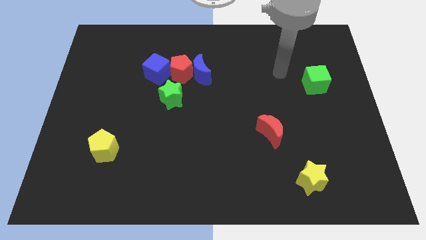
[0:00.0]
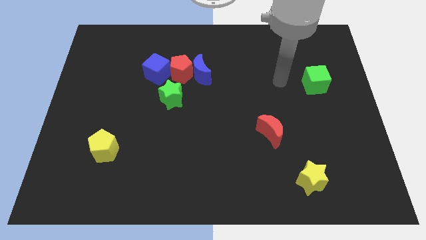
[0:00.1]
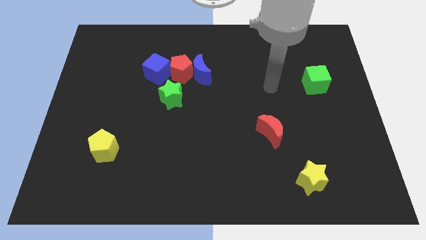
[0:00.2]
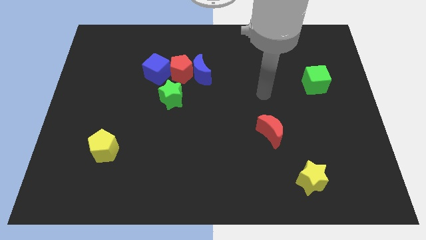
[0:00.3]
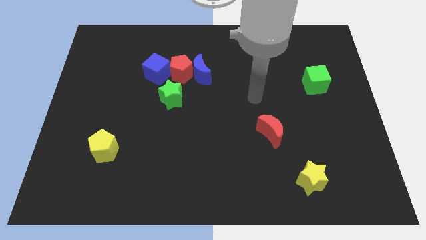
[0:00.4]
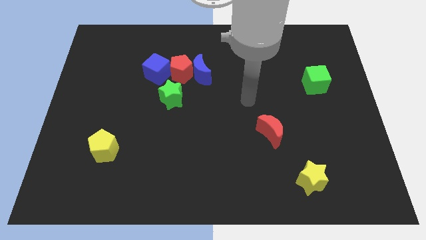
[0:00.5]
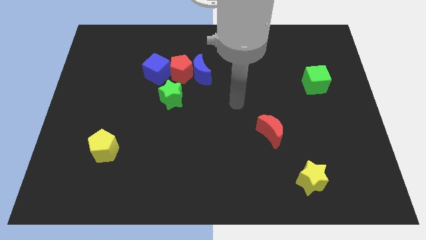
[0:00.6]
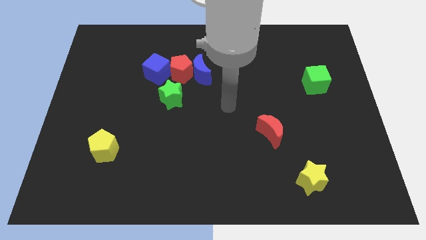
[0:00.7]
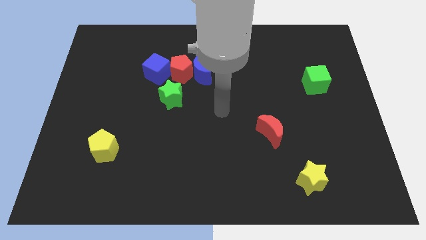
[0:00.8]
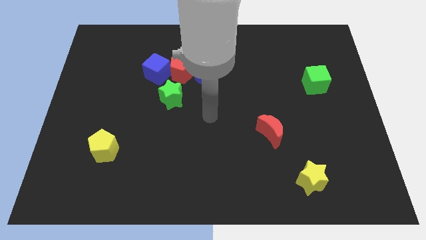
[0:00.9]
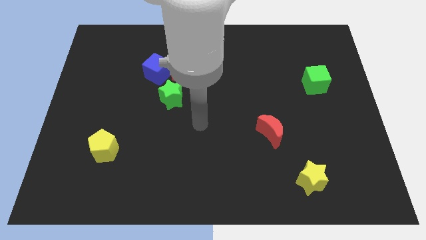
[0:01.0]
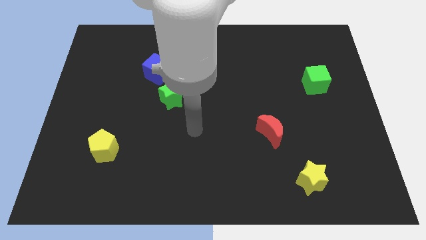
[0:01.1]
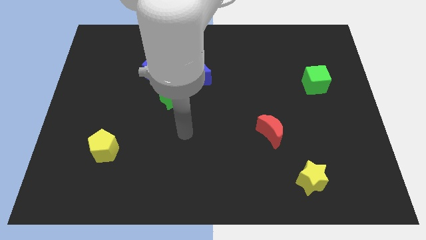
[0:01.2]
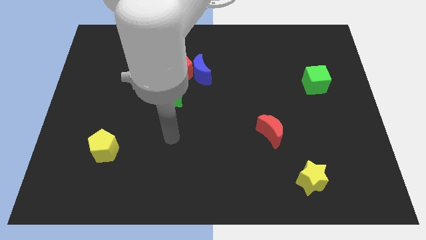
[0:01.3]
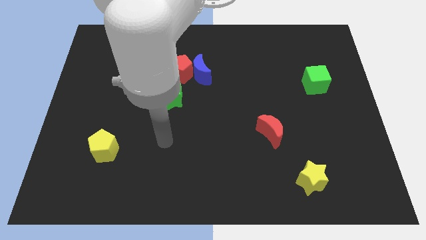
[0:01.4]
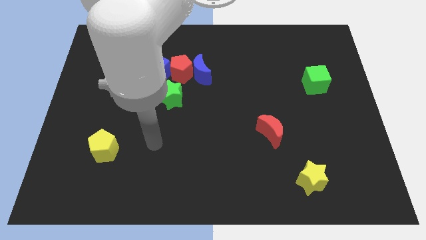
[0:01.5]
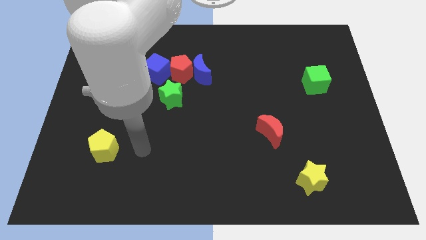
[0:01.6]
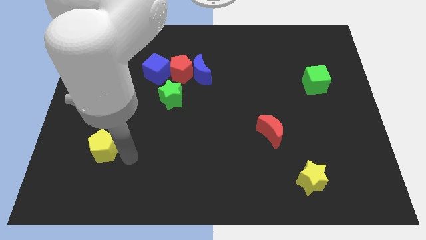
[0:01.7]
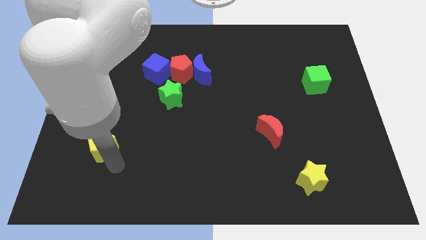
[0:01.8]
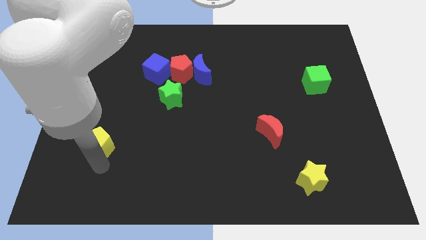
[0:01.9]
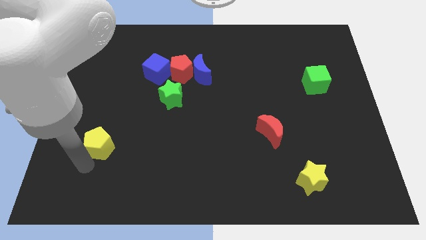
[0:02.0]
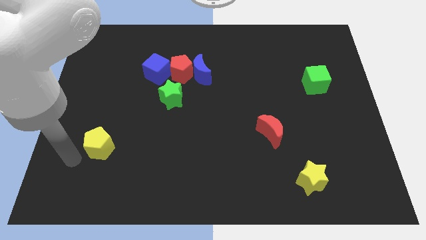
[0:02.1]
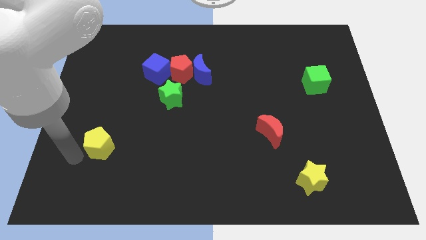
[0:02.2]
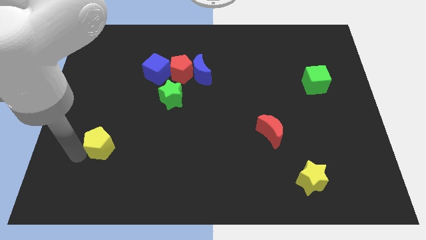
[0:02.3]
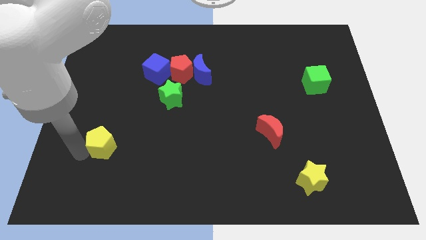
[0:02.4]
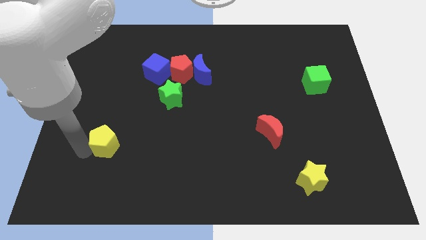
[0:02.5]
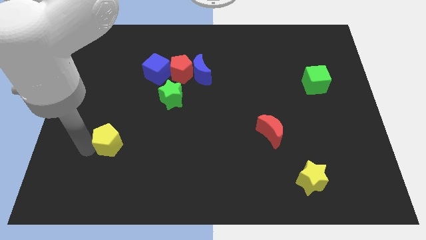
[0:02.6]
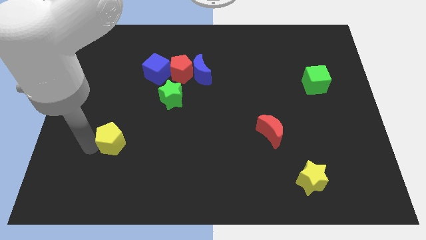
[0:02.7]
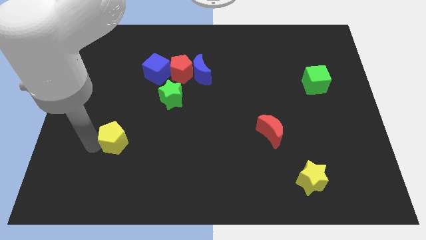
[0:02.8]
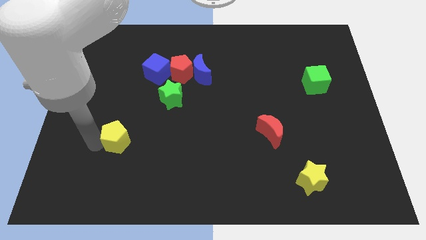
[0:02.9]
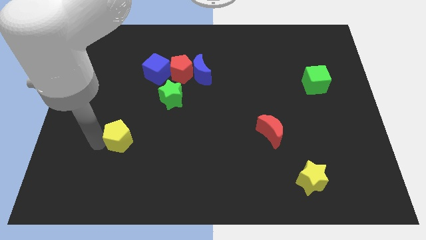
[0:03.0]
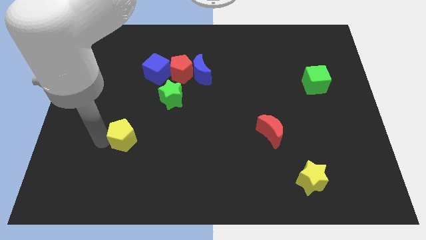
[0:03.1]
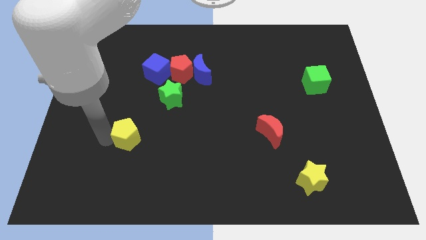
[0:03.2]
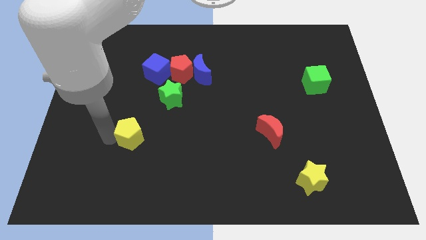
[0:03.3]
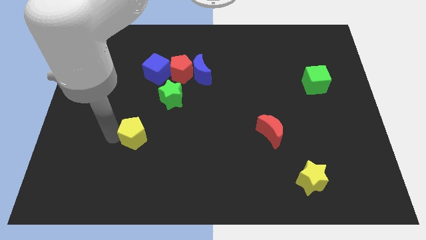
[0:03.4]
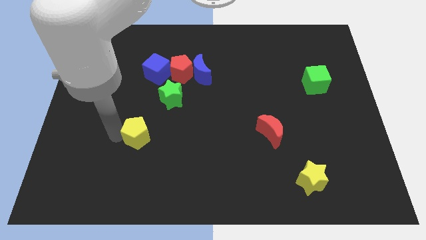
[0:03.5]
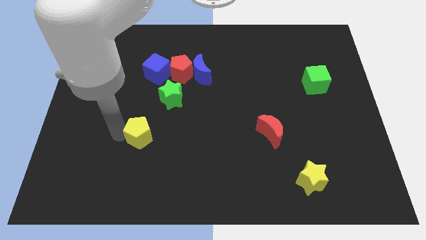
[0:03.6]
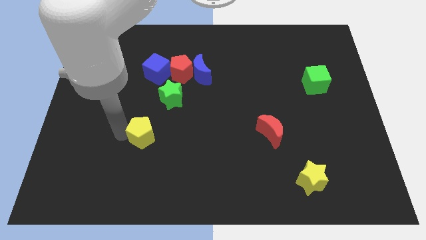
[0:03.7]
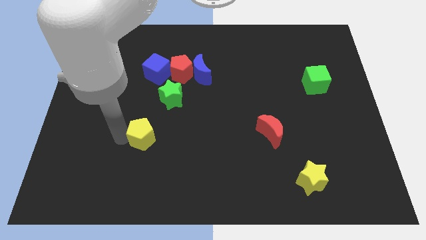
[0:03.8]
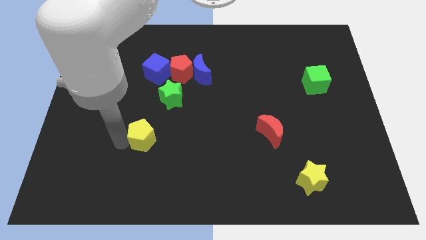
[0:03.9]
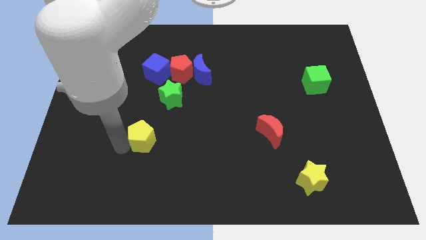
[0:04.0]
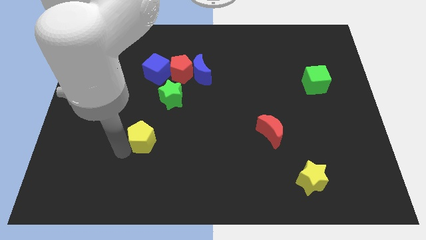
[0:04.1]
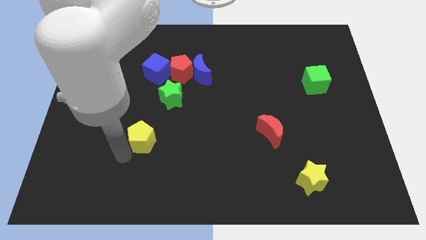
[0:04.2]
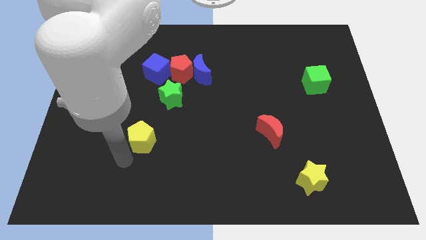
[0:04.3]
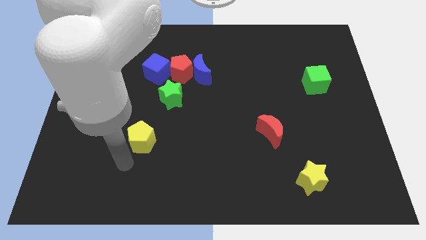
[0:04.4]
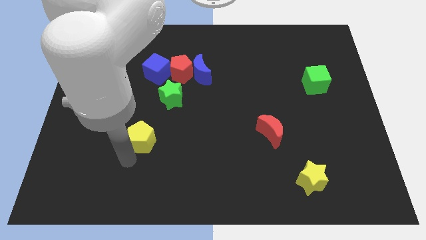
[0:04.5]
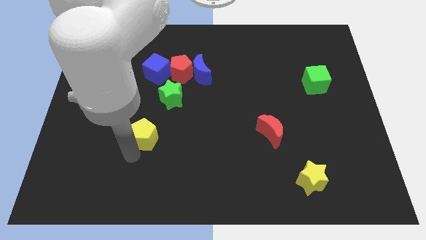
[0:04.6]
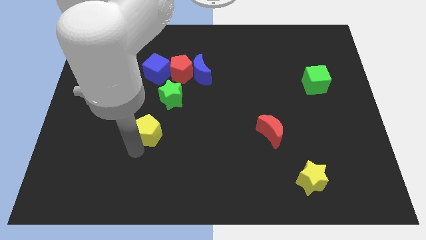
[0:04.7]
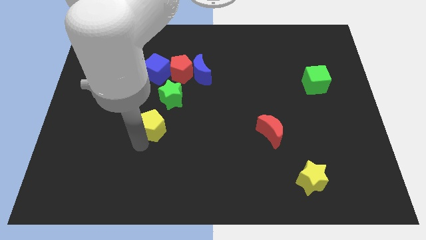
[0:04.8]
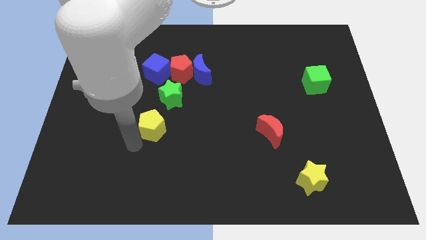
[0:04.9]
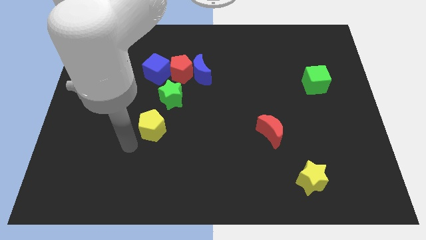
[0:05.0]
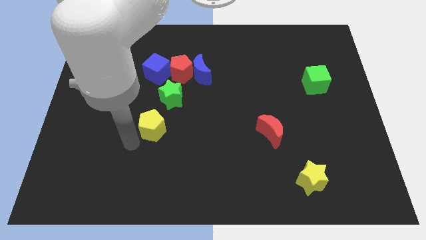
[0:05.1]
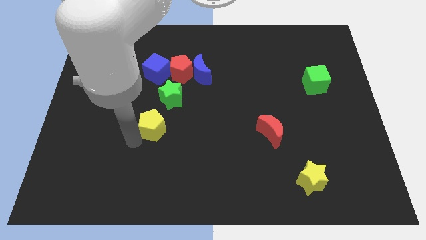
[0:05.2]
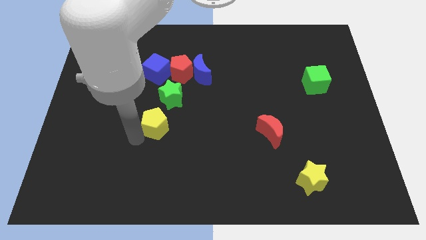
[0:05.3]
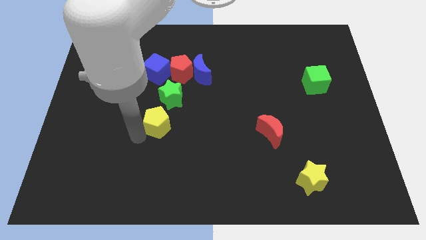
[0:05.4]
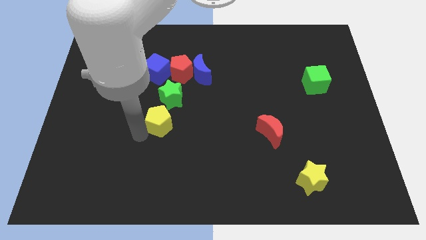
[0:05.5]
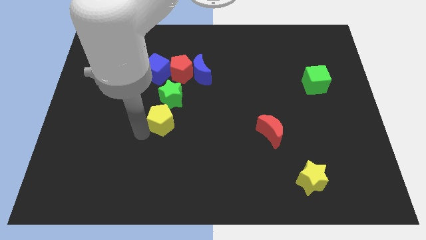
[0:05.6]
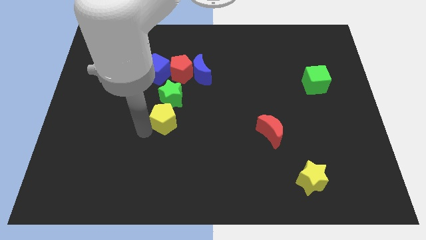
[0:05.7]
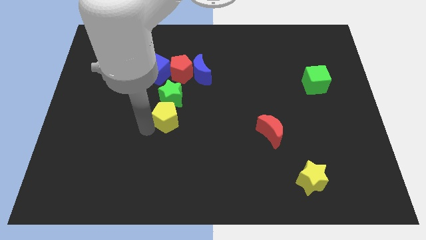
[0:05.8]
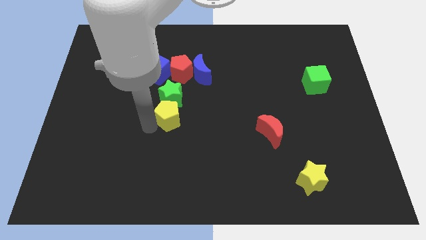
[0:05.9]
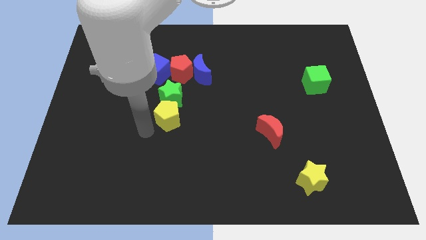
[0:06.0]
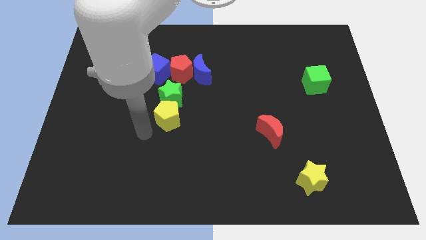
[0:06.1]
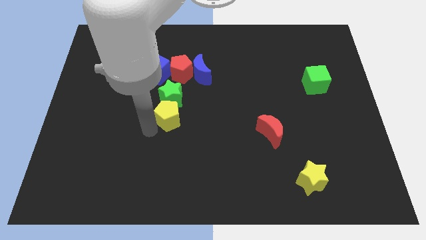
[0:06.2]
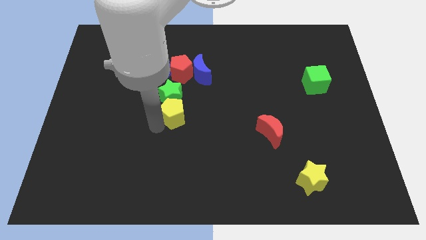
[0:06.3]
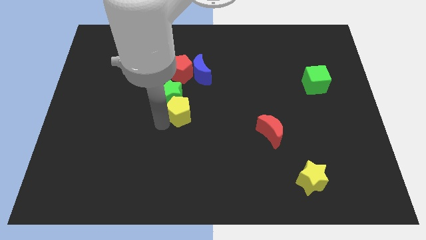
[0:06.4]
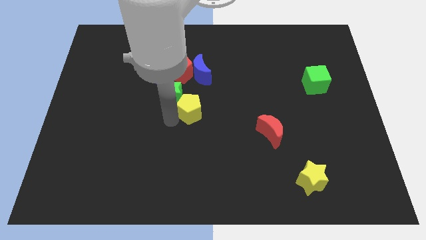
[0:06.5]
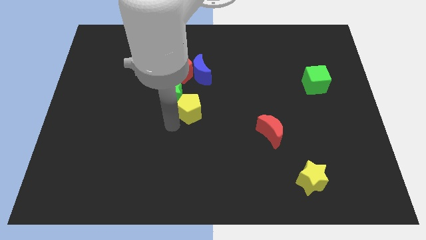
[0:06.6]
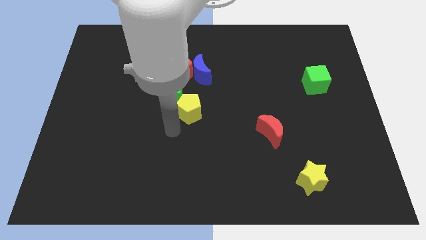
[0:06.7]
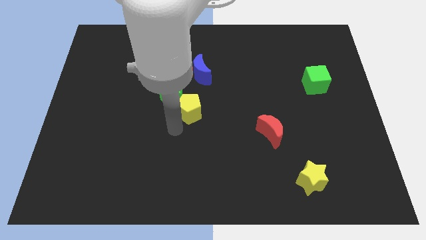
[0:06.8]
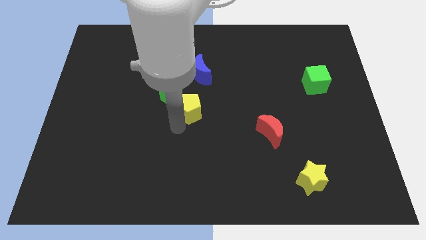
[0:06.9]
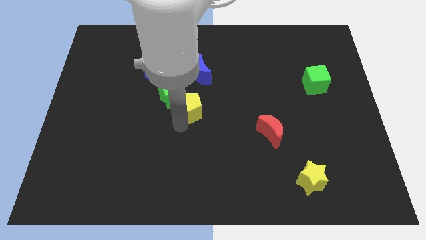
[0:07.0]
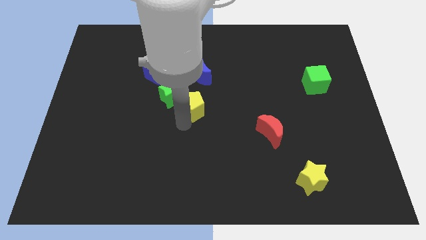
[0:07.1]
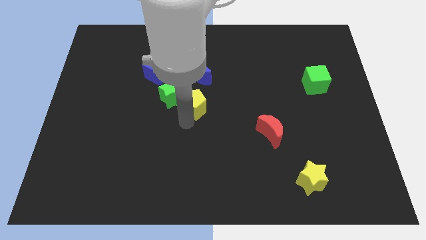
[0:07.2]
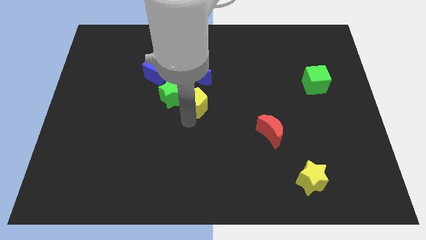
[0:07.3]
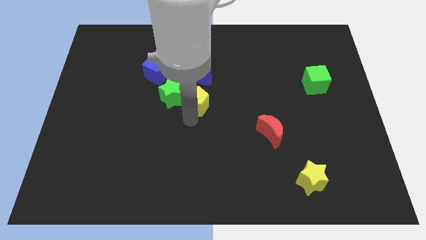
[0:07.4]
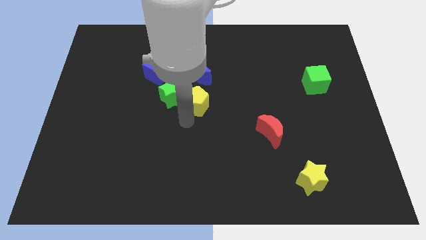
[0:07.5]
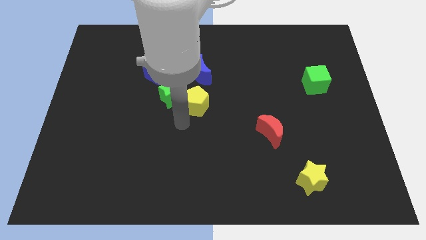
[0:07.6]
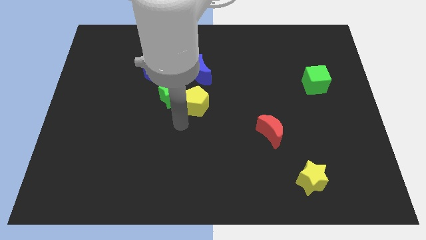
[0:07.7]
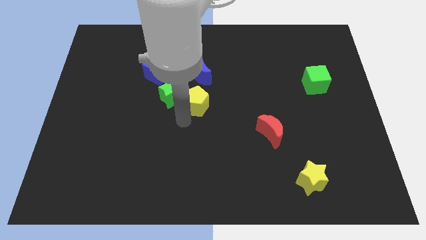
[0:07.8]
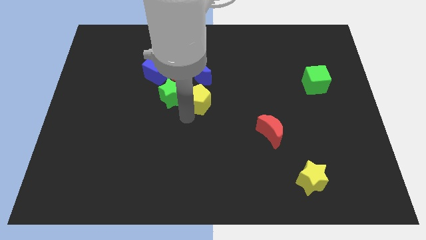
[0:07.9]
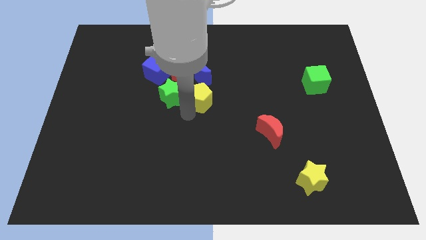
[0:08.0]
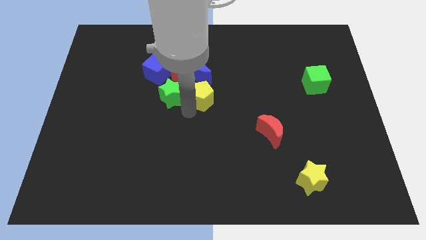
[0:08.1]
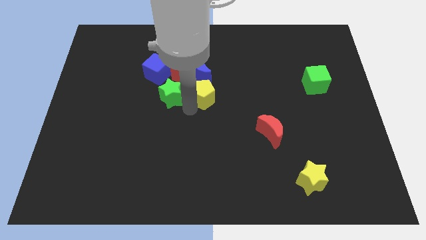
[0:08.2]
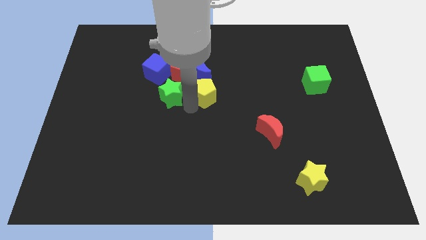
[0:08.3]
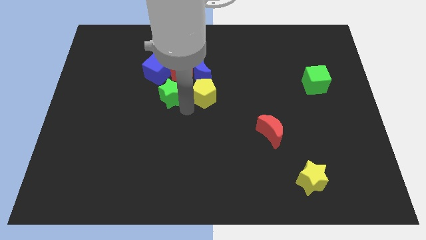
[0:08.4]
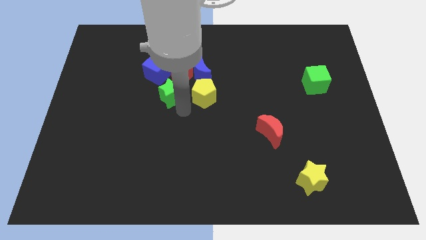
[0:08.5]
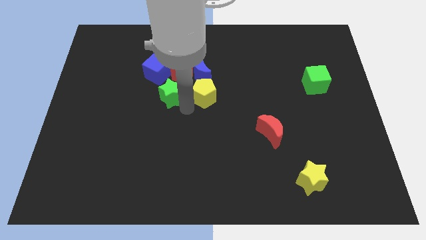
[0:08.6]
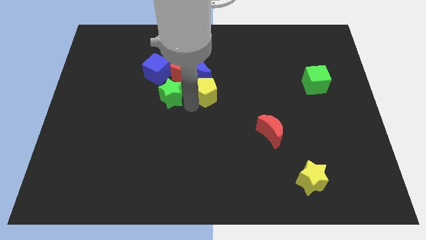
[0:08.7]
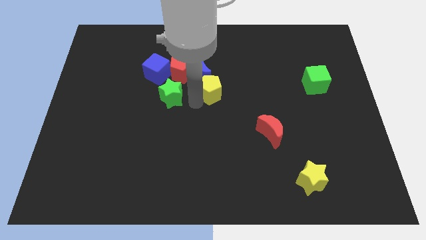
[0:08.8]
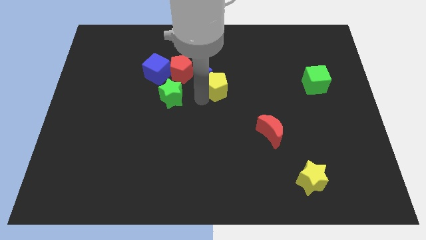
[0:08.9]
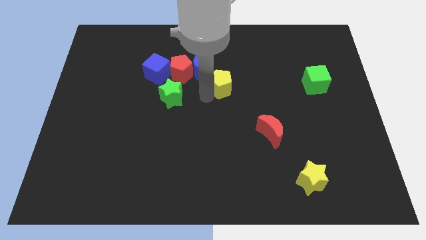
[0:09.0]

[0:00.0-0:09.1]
slide the yellow pentagon to the right of the blue moon
